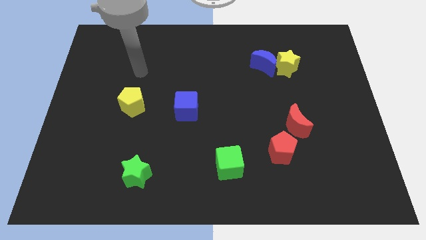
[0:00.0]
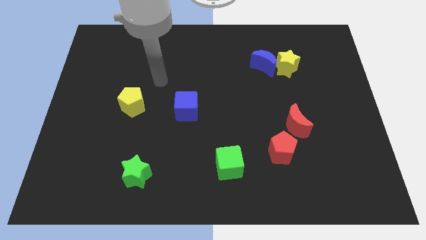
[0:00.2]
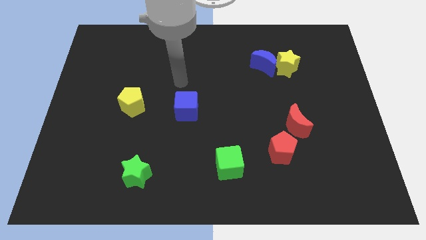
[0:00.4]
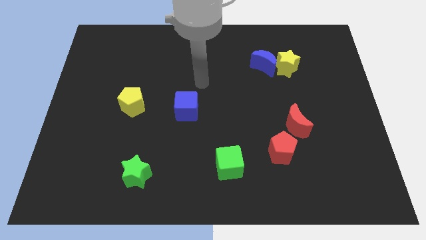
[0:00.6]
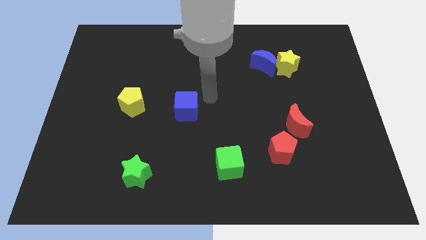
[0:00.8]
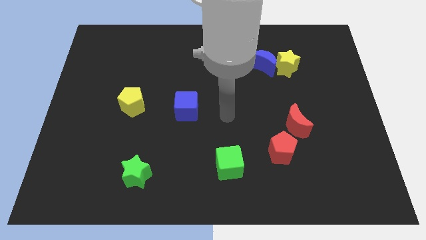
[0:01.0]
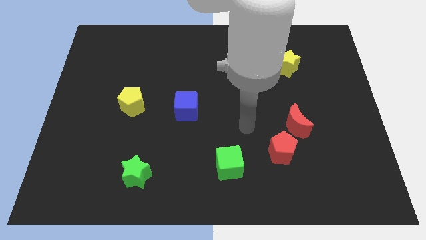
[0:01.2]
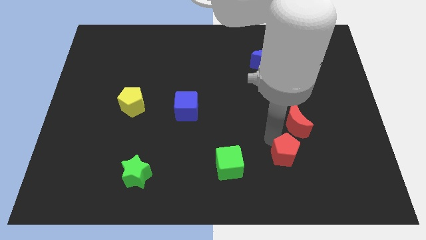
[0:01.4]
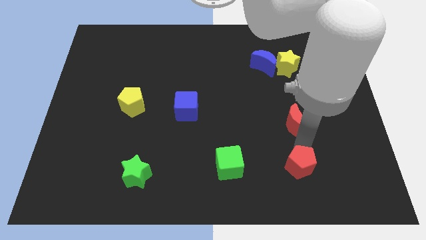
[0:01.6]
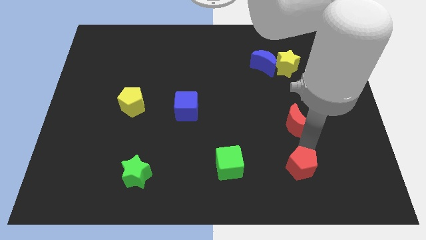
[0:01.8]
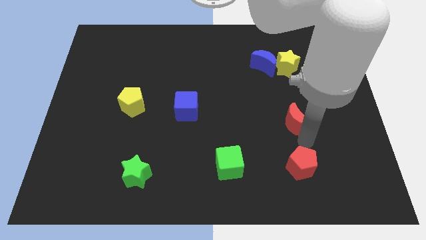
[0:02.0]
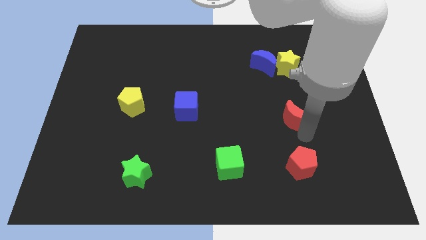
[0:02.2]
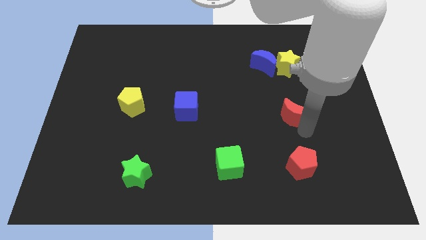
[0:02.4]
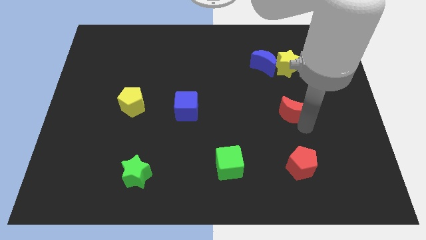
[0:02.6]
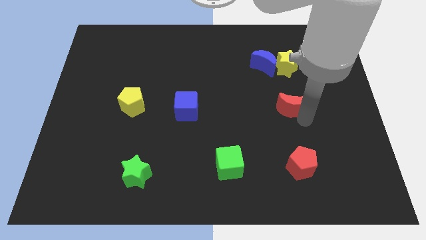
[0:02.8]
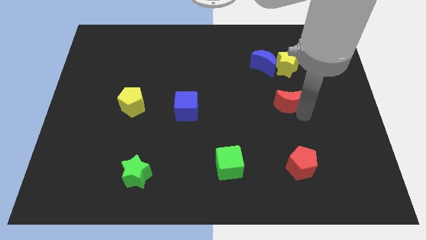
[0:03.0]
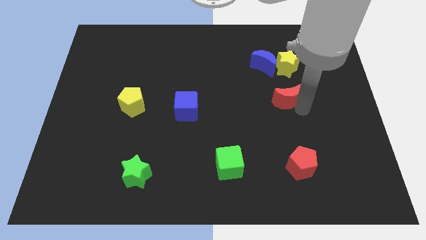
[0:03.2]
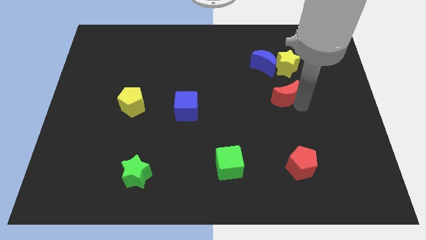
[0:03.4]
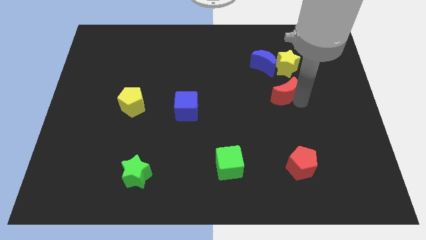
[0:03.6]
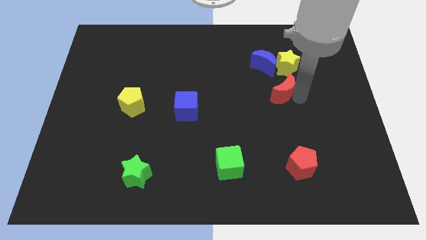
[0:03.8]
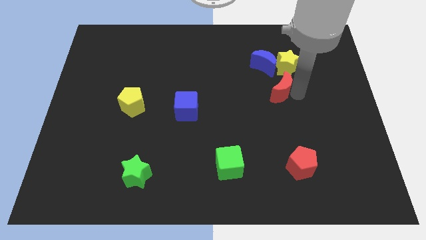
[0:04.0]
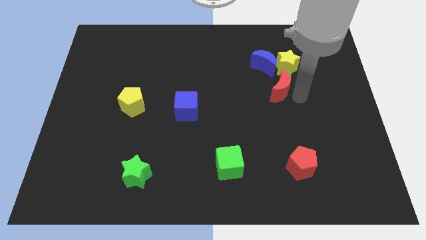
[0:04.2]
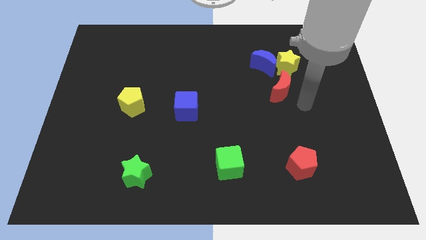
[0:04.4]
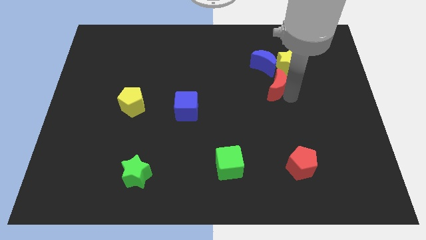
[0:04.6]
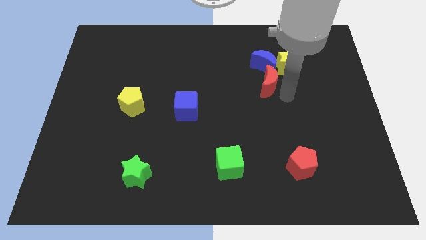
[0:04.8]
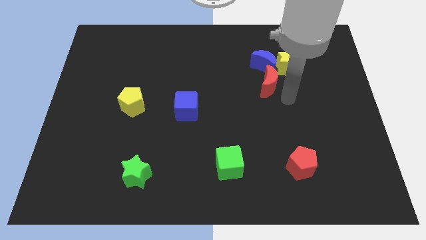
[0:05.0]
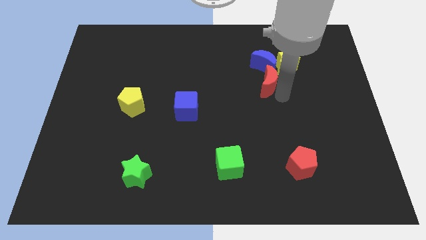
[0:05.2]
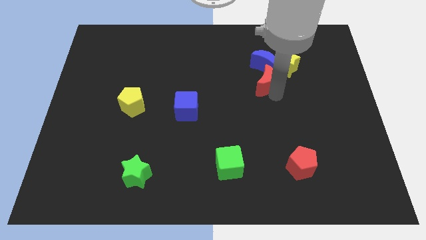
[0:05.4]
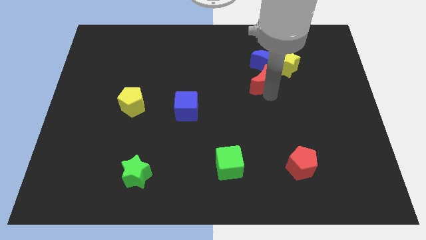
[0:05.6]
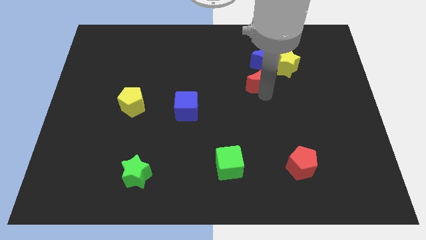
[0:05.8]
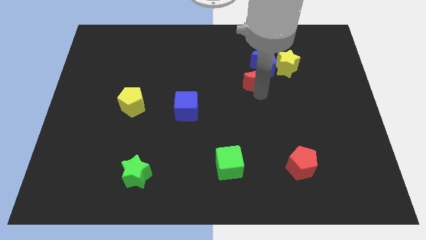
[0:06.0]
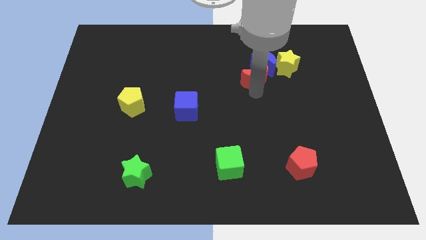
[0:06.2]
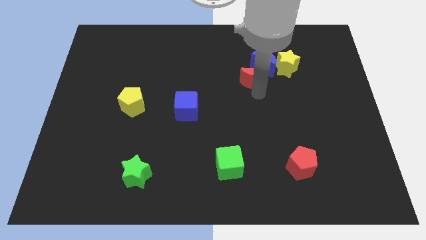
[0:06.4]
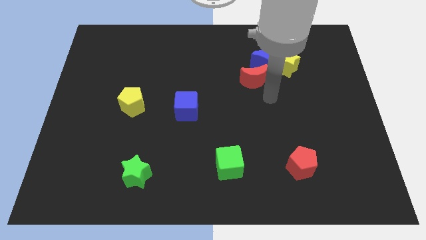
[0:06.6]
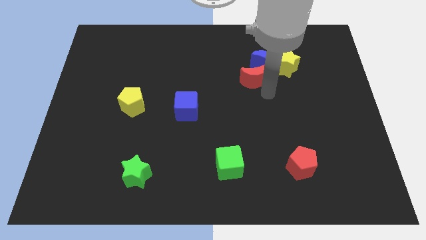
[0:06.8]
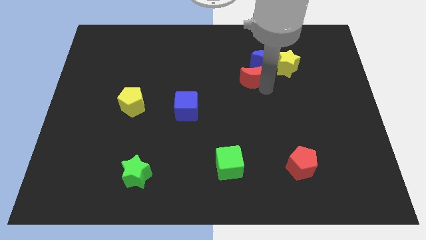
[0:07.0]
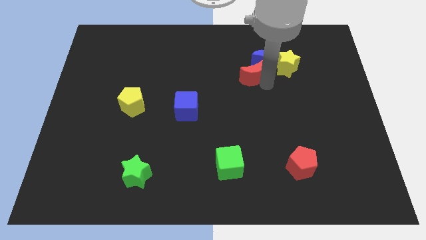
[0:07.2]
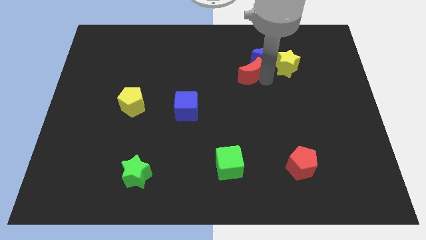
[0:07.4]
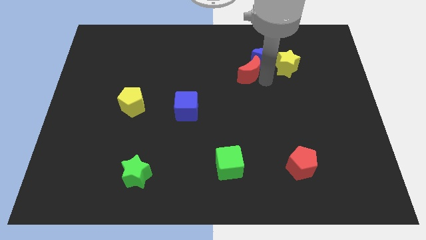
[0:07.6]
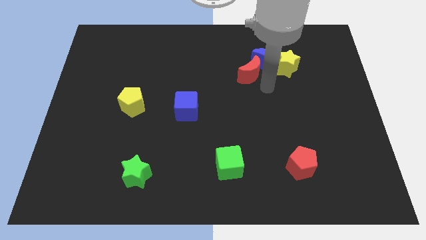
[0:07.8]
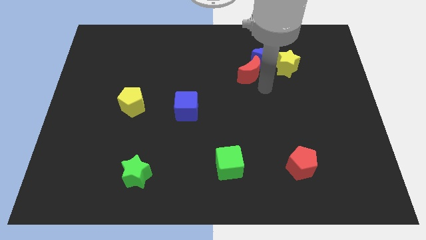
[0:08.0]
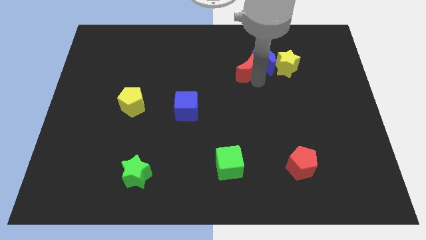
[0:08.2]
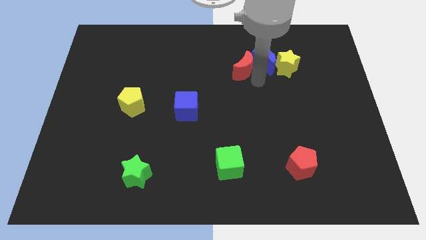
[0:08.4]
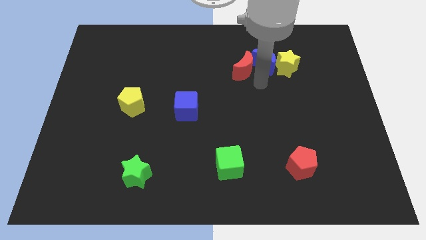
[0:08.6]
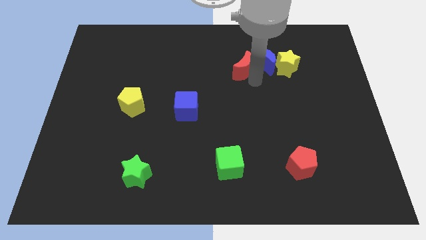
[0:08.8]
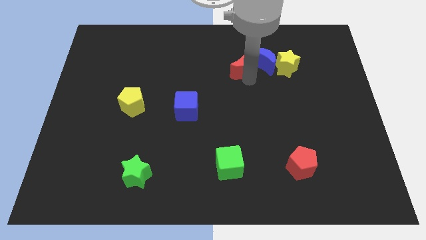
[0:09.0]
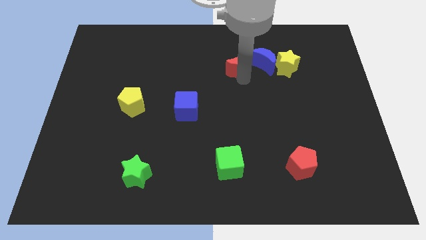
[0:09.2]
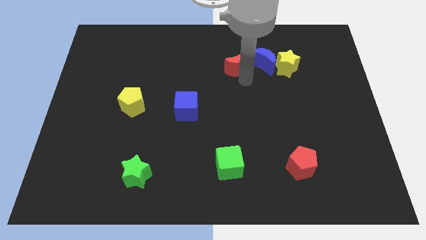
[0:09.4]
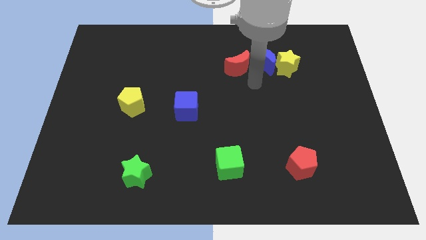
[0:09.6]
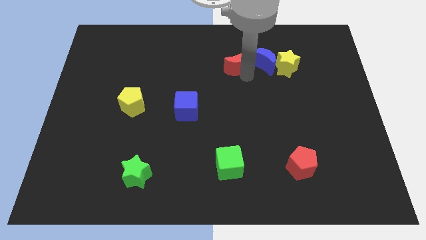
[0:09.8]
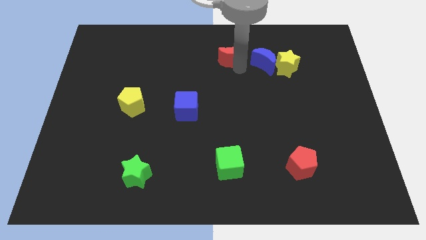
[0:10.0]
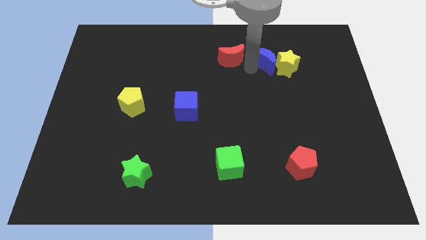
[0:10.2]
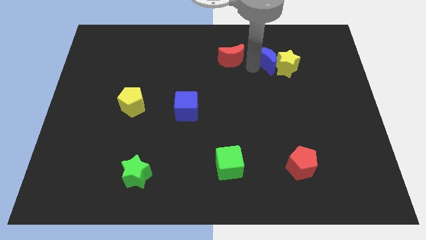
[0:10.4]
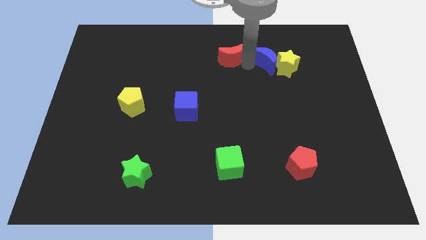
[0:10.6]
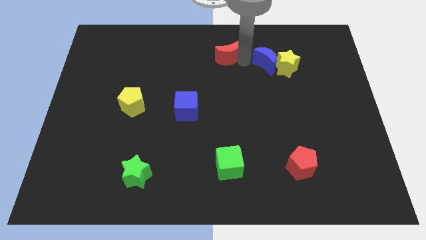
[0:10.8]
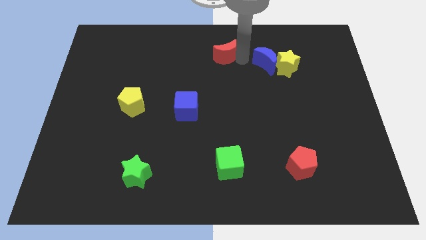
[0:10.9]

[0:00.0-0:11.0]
put the red moon to the top

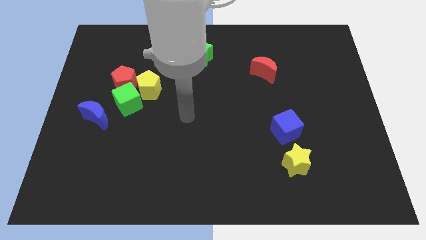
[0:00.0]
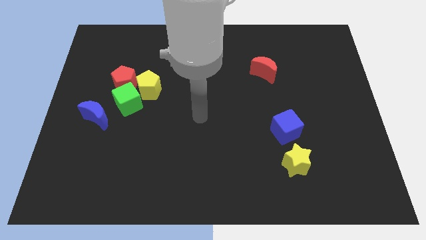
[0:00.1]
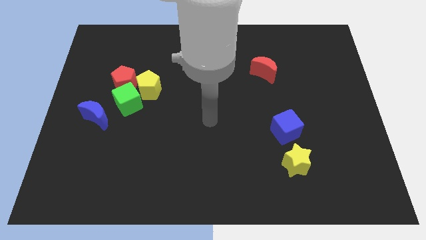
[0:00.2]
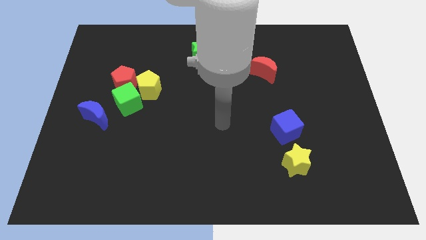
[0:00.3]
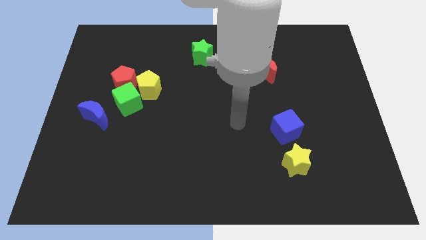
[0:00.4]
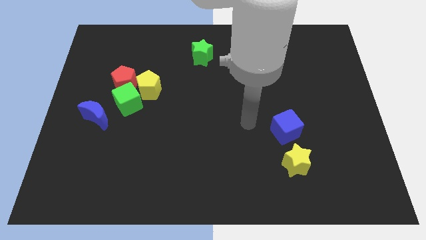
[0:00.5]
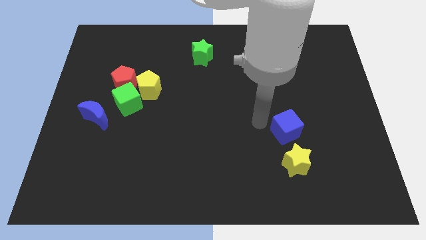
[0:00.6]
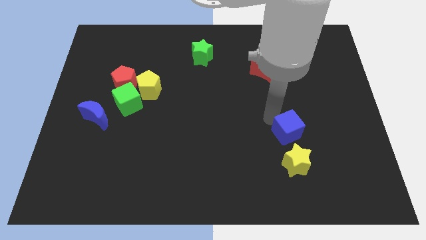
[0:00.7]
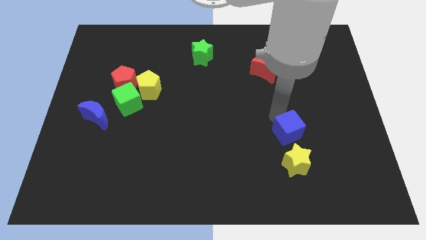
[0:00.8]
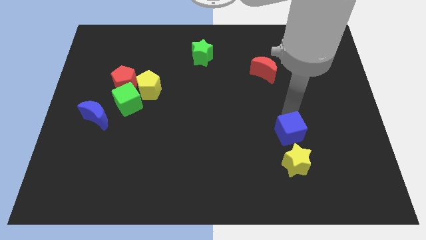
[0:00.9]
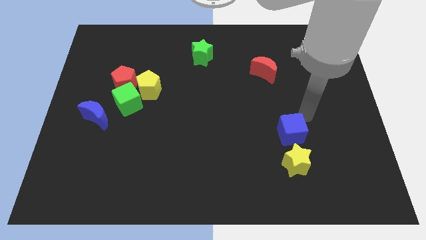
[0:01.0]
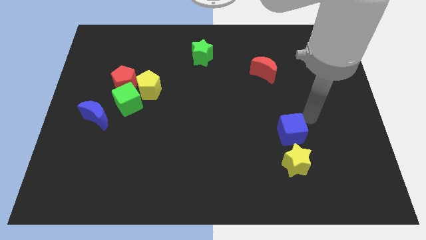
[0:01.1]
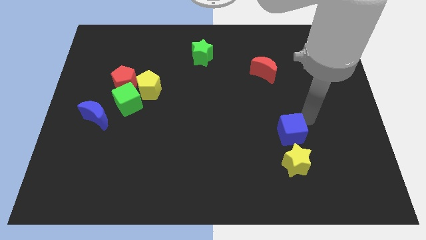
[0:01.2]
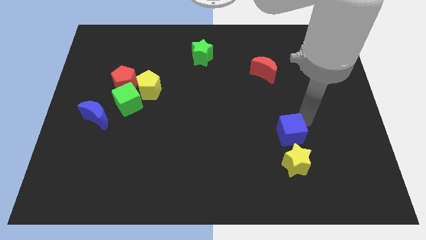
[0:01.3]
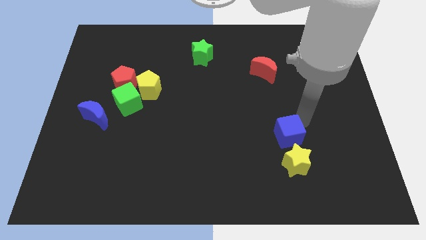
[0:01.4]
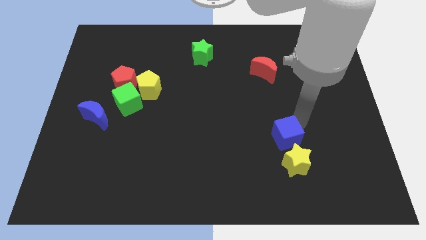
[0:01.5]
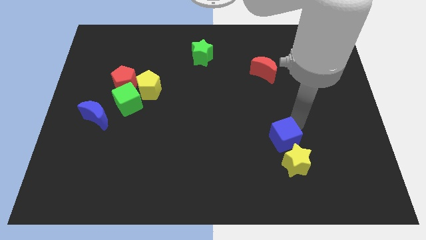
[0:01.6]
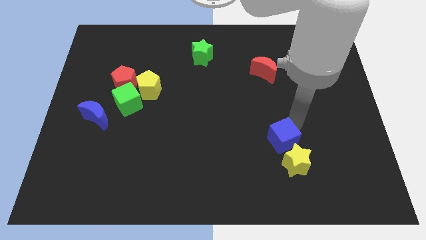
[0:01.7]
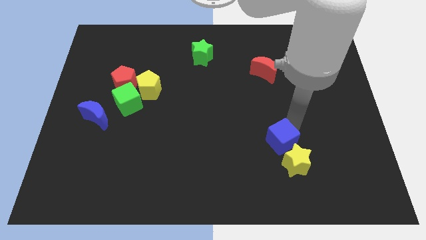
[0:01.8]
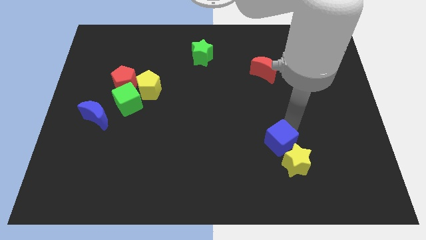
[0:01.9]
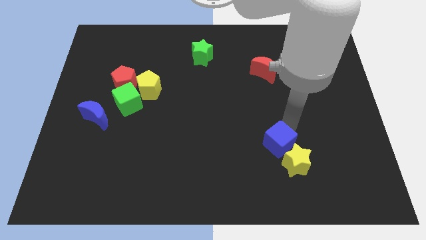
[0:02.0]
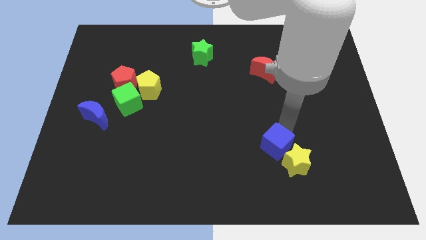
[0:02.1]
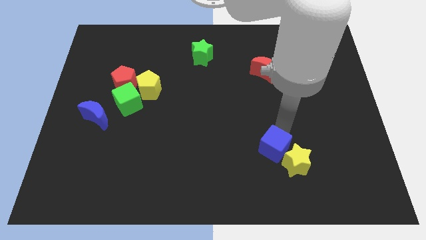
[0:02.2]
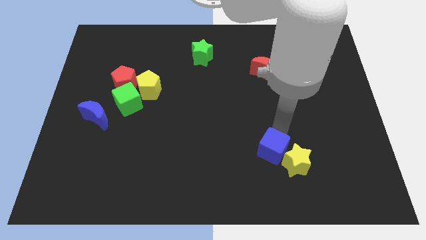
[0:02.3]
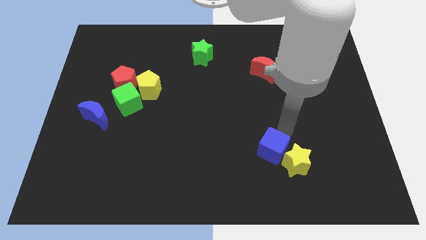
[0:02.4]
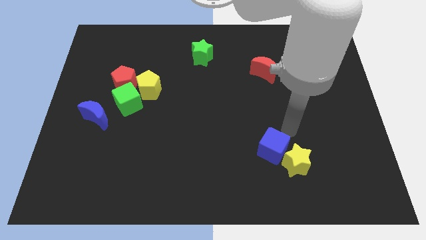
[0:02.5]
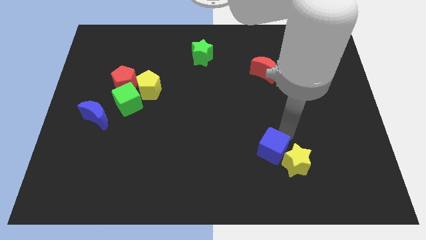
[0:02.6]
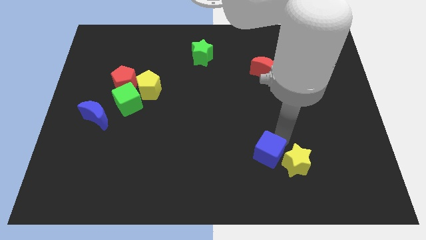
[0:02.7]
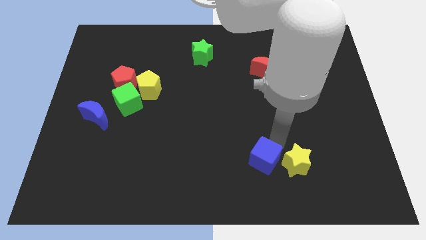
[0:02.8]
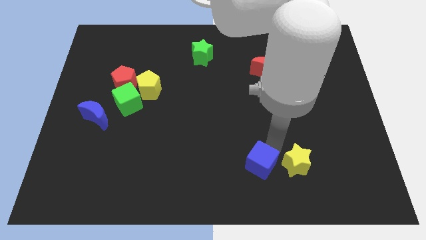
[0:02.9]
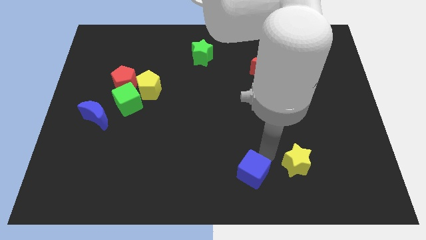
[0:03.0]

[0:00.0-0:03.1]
move the blue cube to the bottom side
